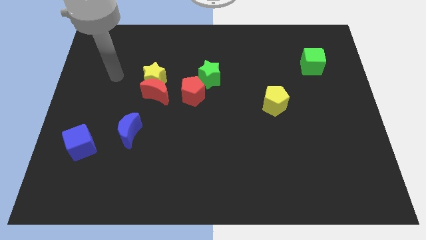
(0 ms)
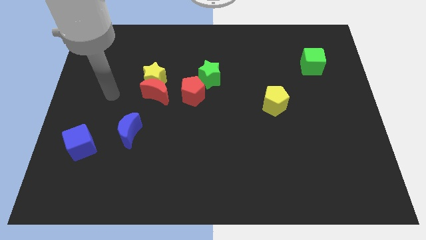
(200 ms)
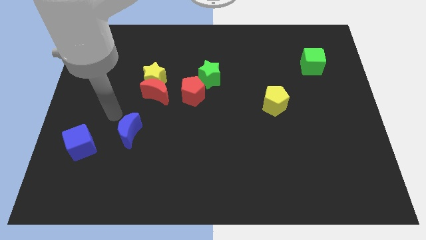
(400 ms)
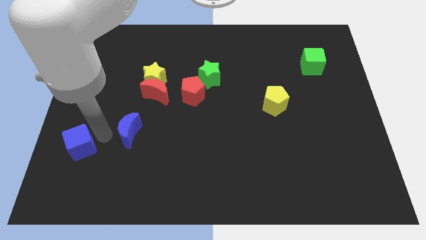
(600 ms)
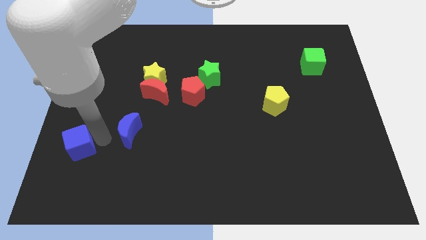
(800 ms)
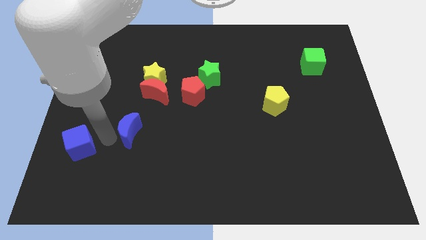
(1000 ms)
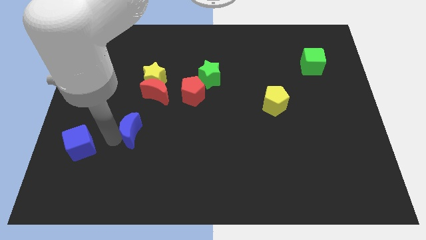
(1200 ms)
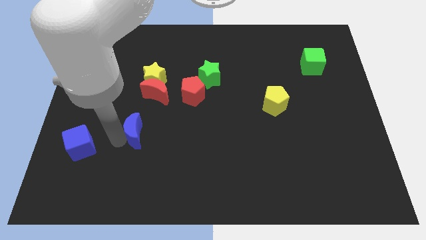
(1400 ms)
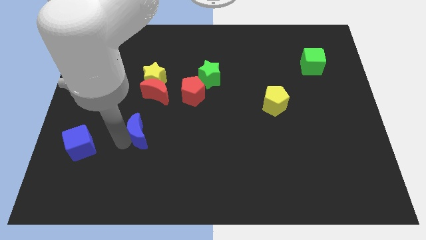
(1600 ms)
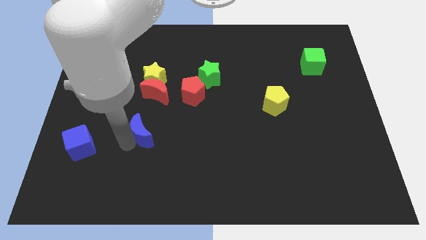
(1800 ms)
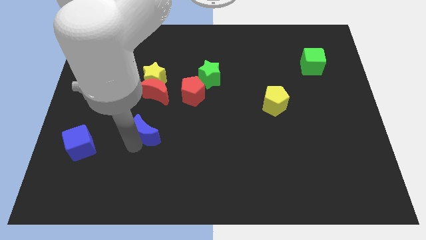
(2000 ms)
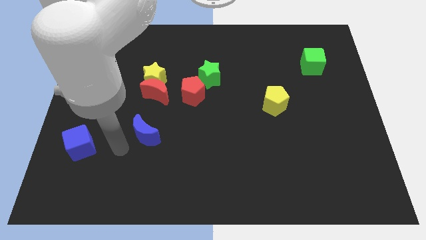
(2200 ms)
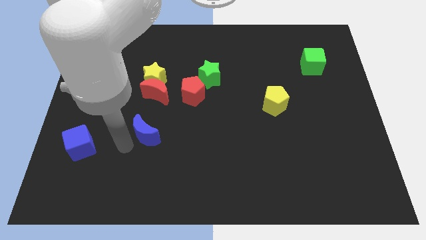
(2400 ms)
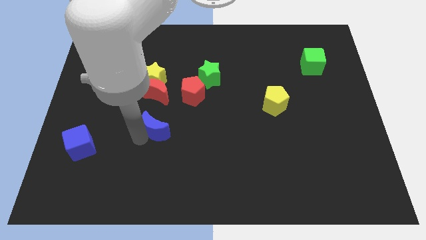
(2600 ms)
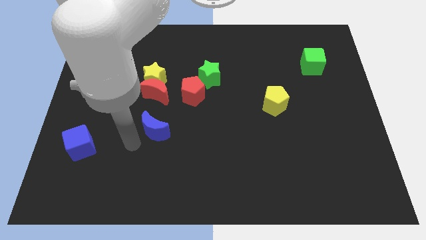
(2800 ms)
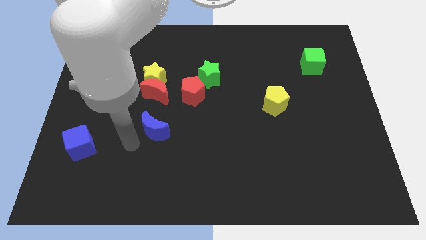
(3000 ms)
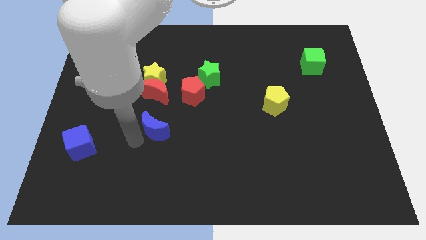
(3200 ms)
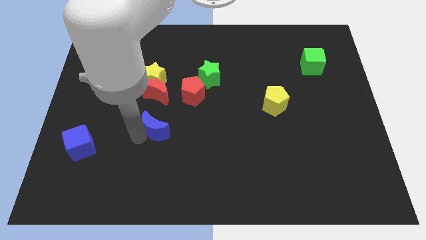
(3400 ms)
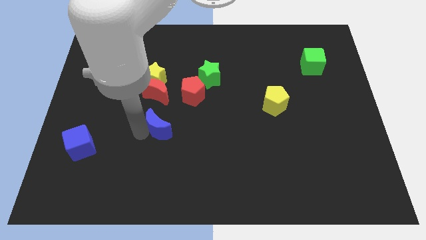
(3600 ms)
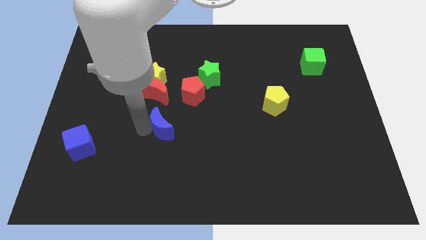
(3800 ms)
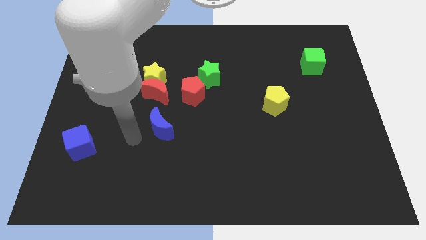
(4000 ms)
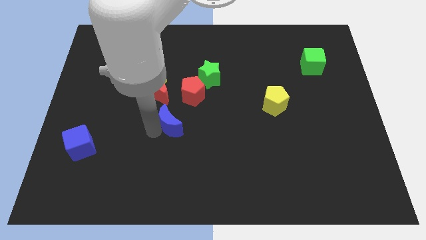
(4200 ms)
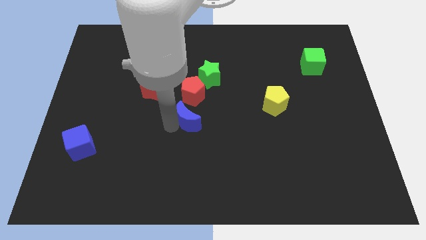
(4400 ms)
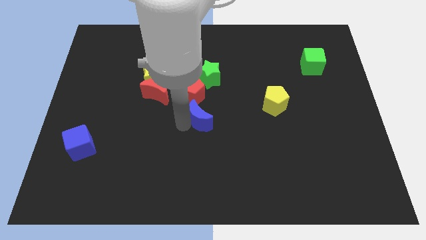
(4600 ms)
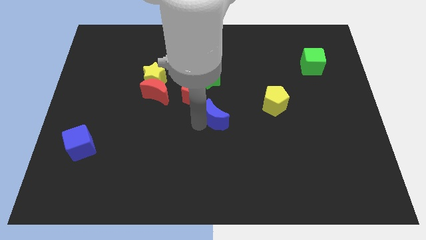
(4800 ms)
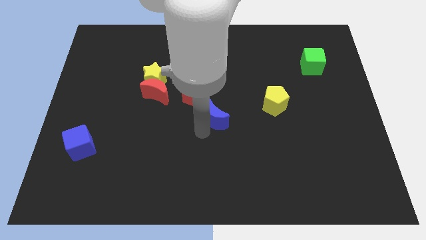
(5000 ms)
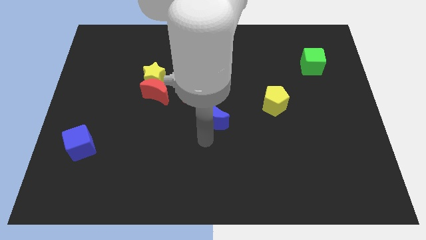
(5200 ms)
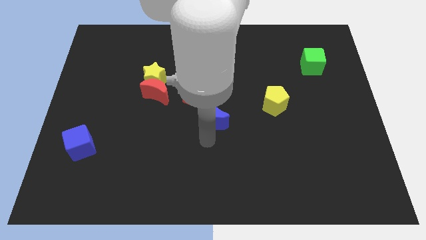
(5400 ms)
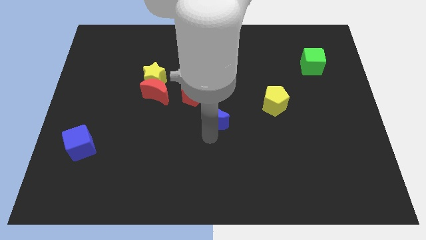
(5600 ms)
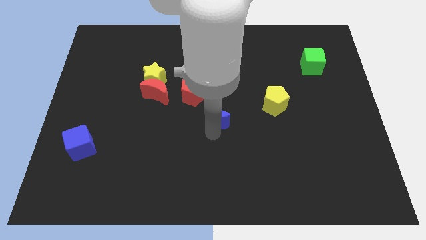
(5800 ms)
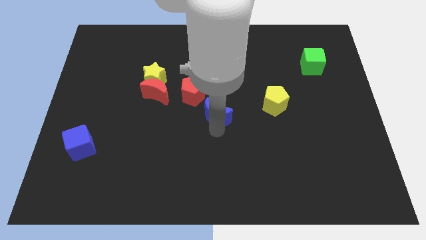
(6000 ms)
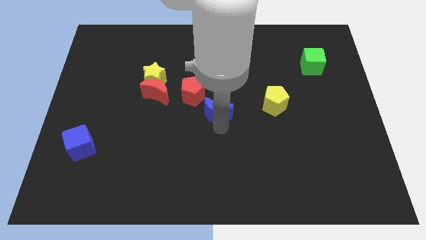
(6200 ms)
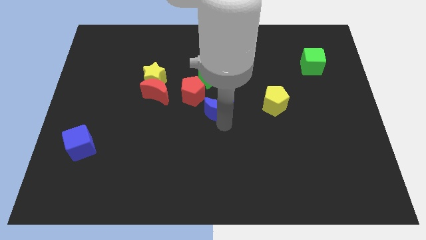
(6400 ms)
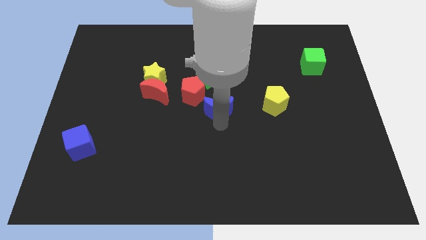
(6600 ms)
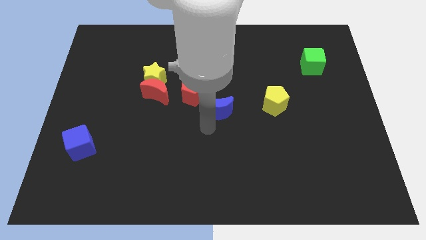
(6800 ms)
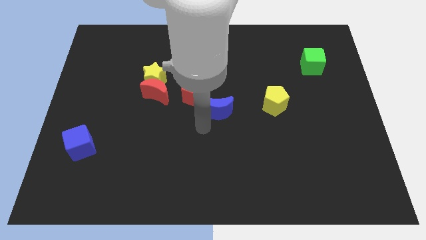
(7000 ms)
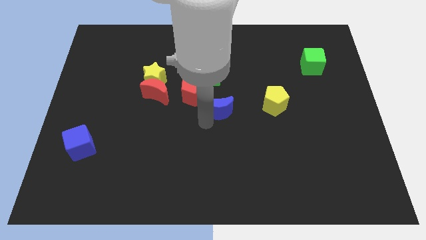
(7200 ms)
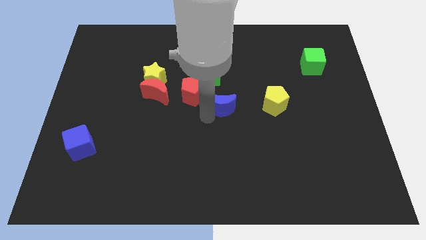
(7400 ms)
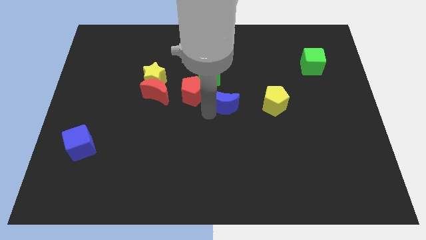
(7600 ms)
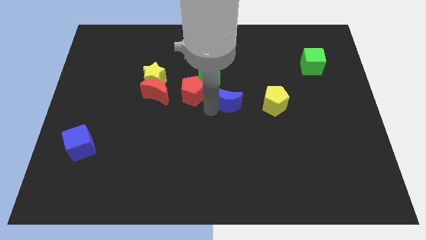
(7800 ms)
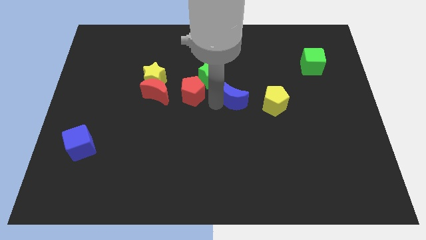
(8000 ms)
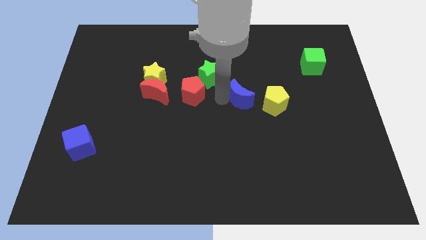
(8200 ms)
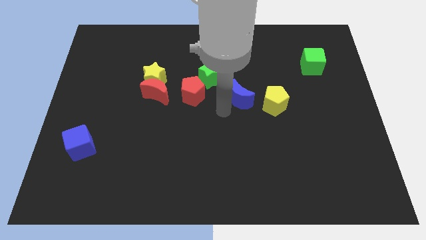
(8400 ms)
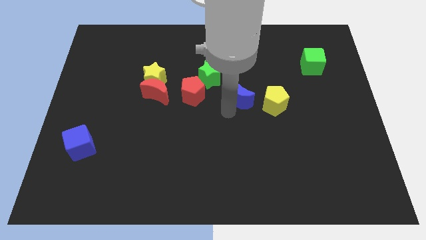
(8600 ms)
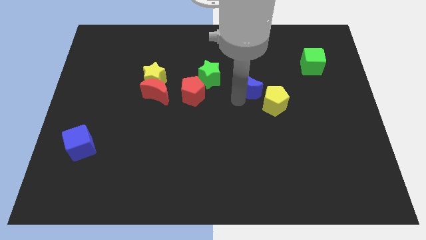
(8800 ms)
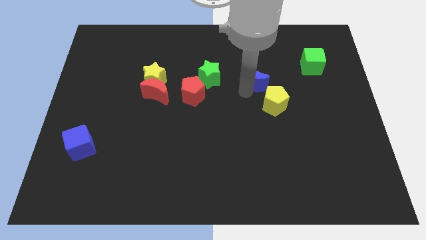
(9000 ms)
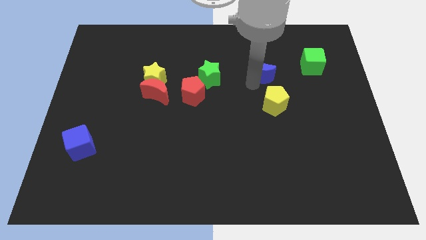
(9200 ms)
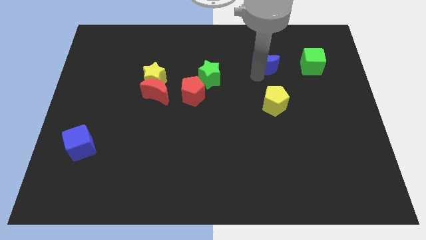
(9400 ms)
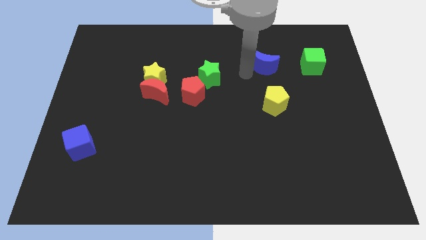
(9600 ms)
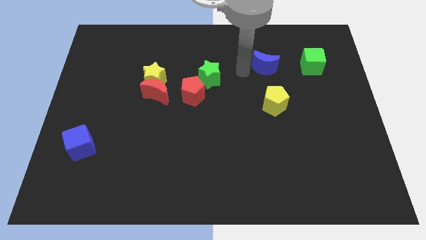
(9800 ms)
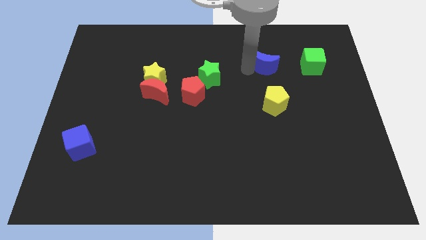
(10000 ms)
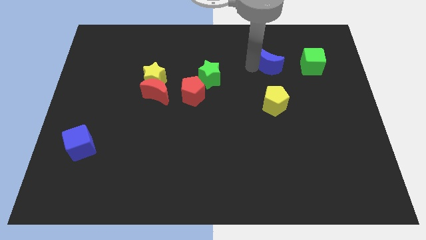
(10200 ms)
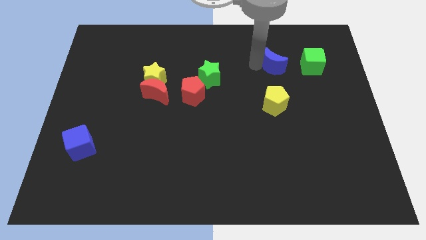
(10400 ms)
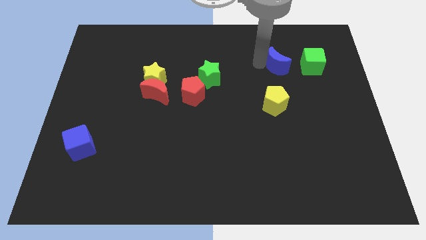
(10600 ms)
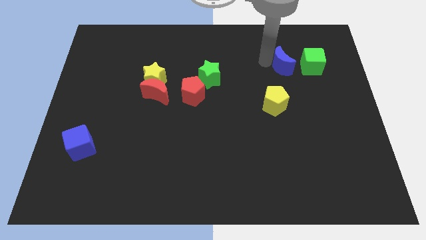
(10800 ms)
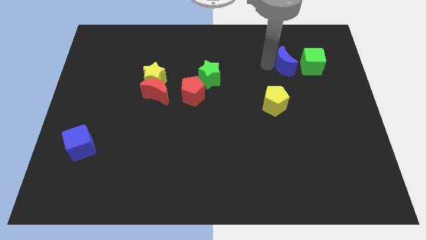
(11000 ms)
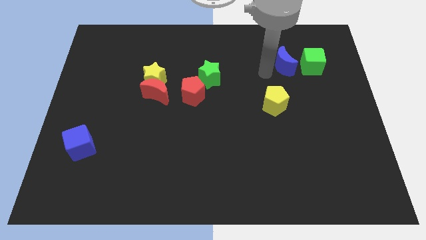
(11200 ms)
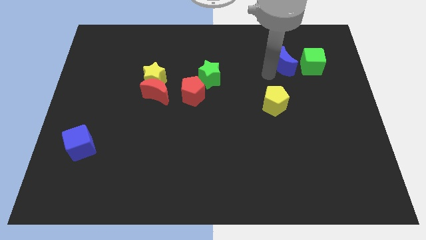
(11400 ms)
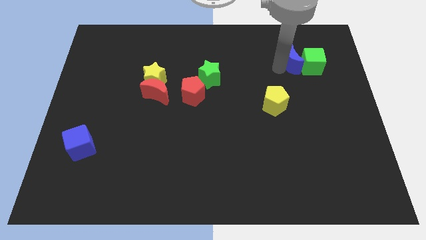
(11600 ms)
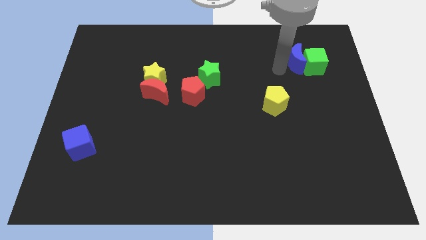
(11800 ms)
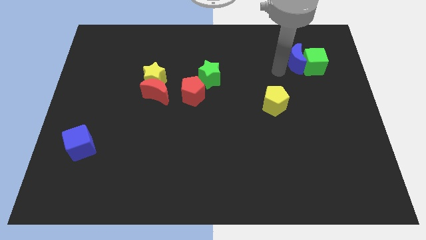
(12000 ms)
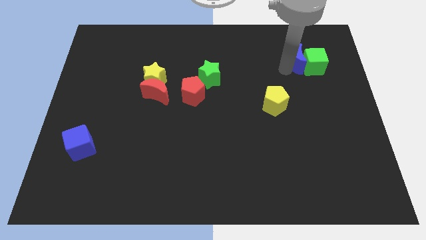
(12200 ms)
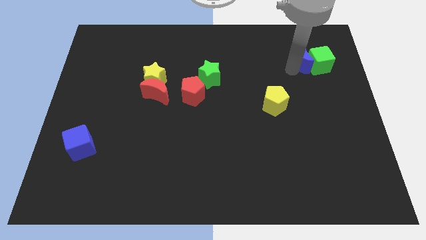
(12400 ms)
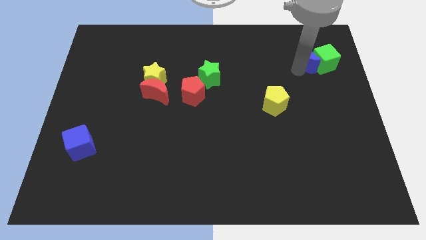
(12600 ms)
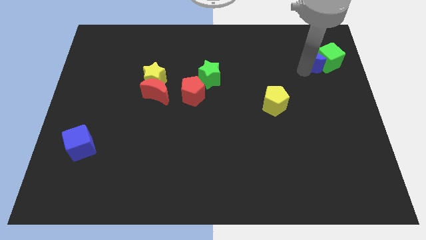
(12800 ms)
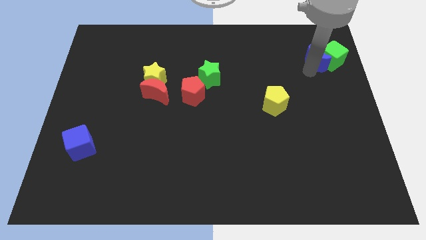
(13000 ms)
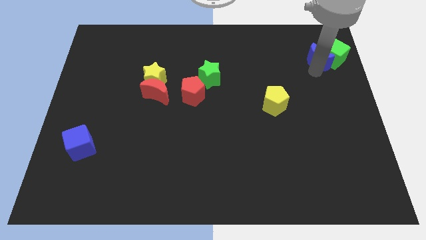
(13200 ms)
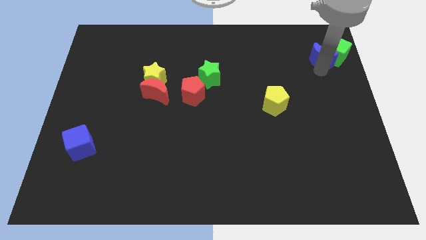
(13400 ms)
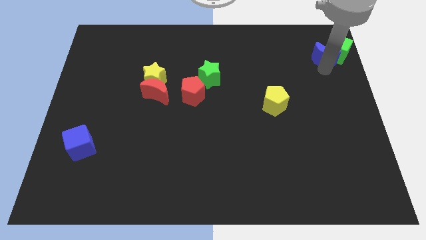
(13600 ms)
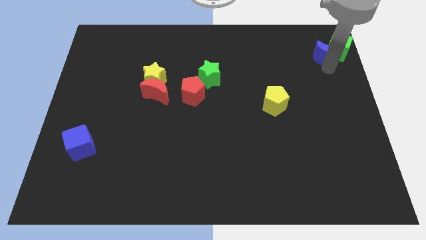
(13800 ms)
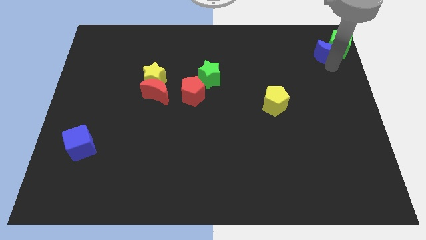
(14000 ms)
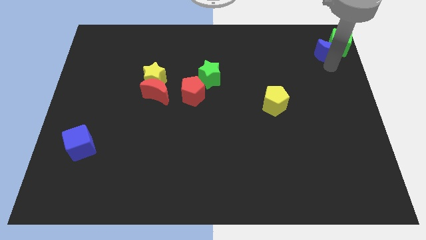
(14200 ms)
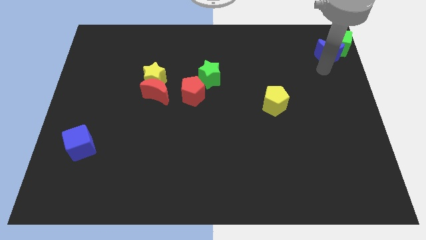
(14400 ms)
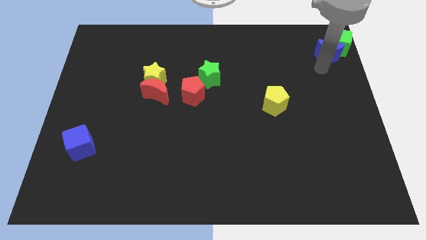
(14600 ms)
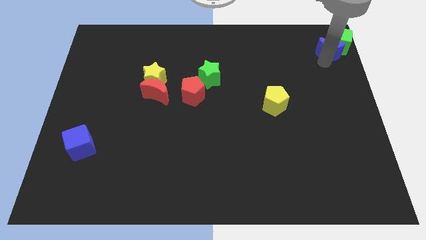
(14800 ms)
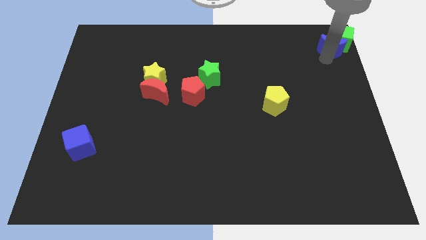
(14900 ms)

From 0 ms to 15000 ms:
push the blue moon to the upper right corner
